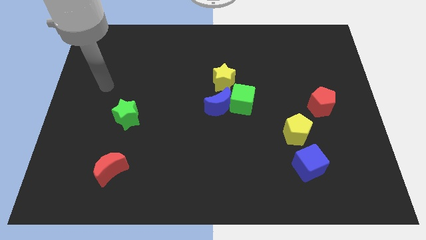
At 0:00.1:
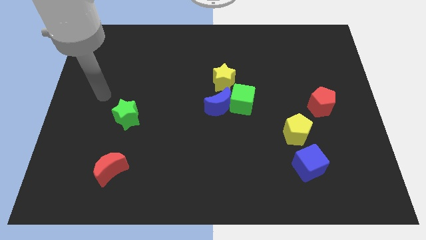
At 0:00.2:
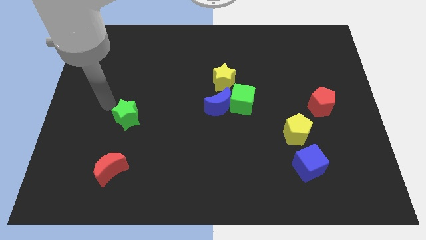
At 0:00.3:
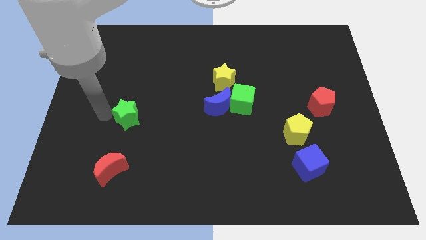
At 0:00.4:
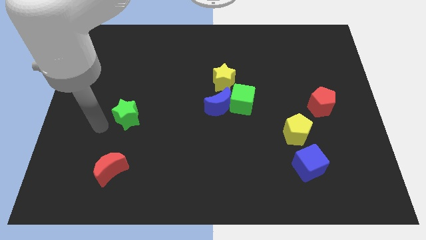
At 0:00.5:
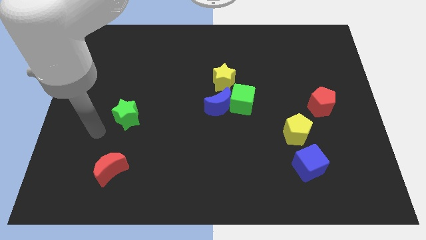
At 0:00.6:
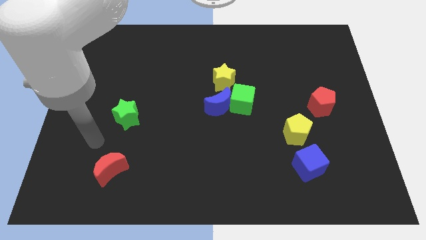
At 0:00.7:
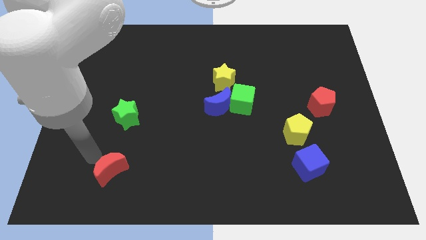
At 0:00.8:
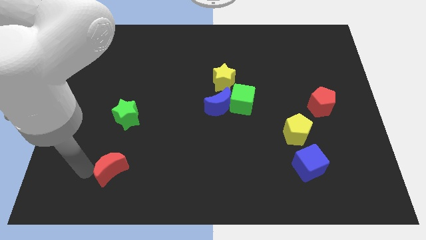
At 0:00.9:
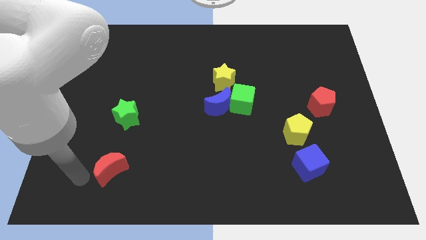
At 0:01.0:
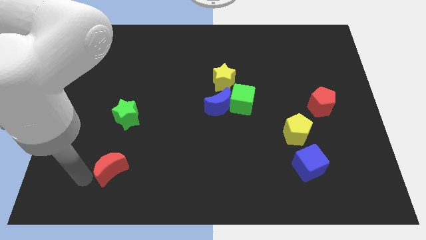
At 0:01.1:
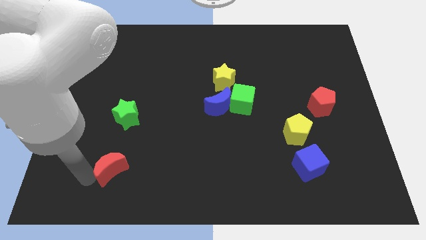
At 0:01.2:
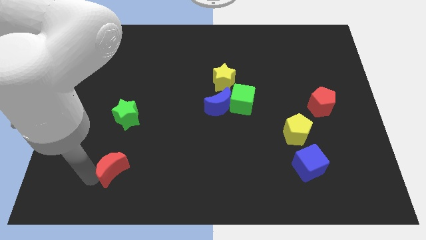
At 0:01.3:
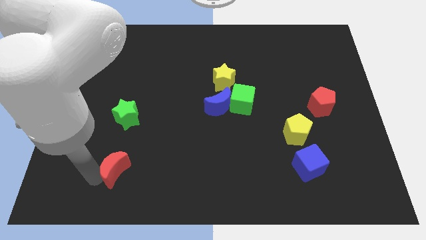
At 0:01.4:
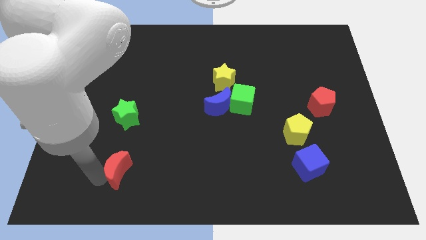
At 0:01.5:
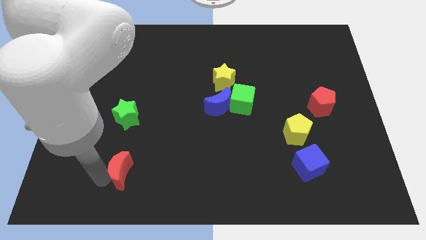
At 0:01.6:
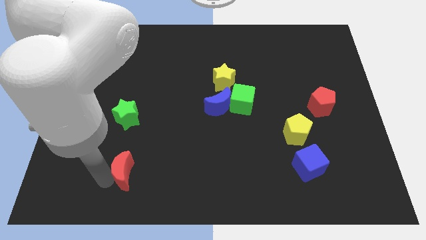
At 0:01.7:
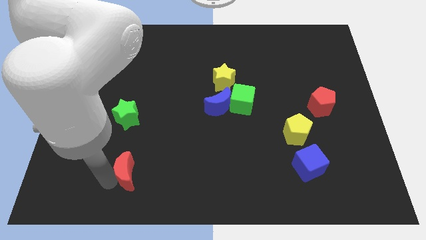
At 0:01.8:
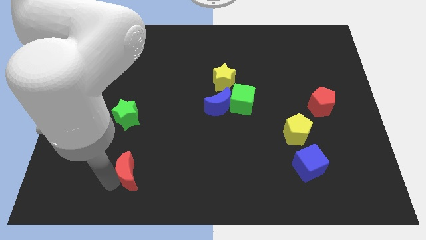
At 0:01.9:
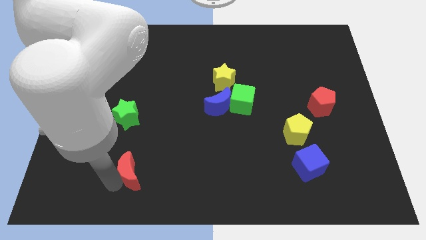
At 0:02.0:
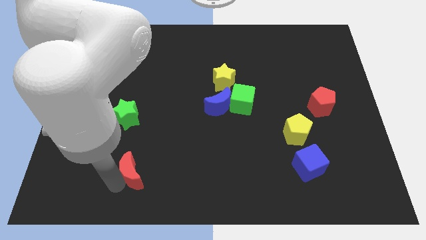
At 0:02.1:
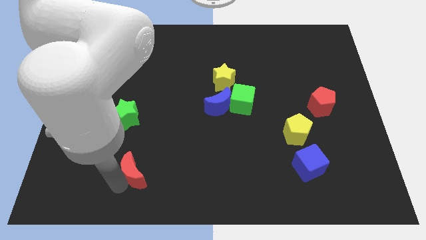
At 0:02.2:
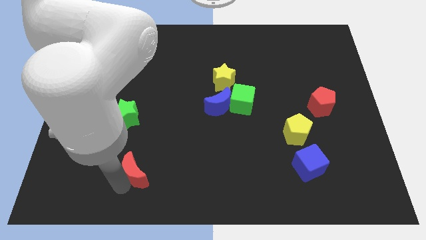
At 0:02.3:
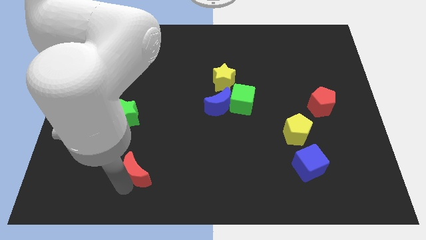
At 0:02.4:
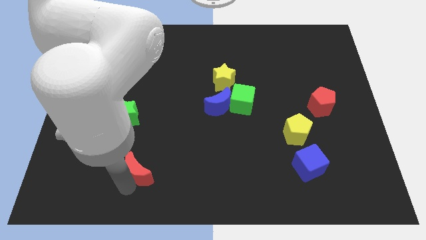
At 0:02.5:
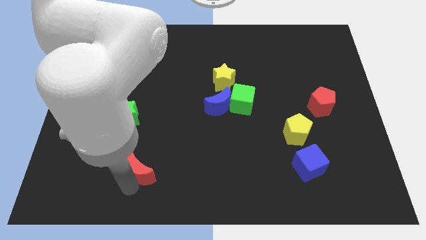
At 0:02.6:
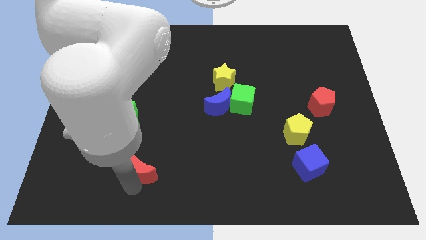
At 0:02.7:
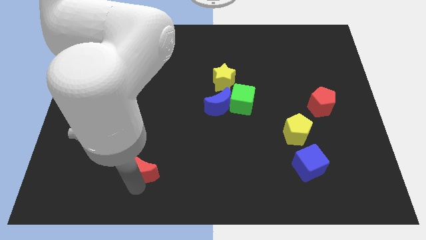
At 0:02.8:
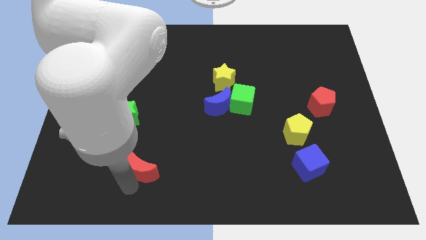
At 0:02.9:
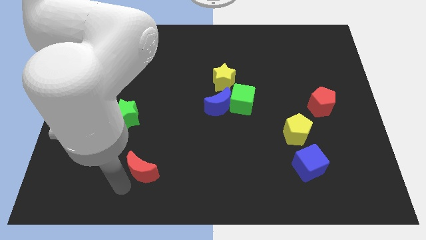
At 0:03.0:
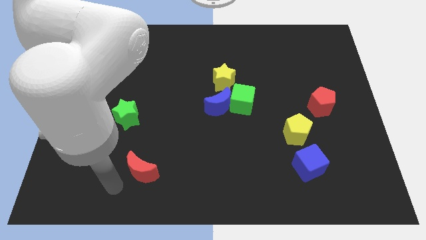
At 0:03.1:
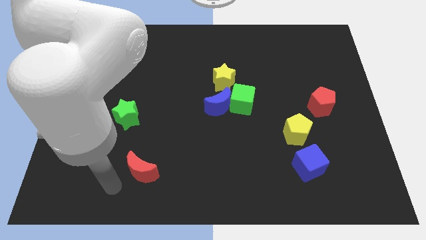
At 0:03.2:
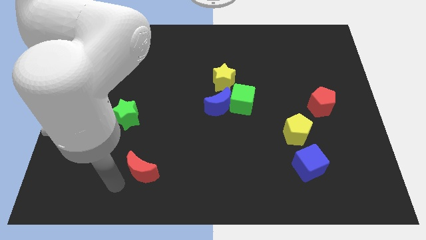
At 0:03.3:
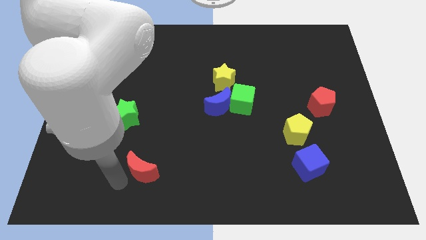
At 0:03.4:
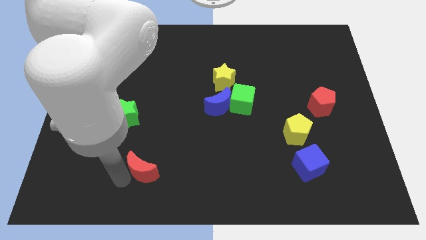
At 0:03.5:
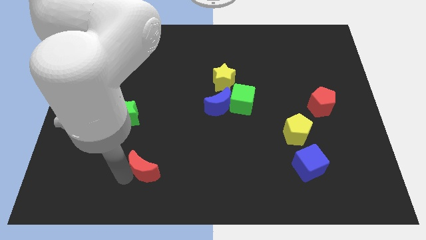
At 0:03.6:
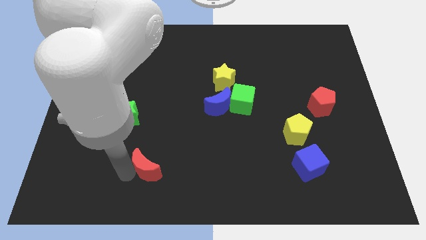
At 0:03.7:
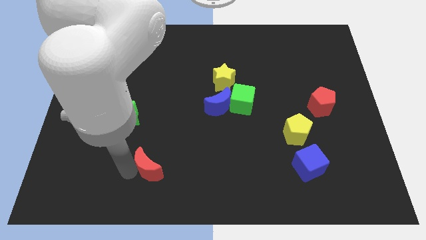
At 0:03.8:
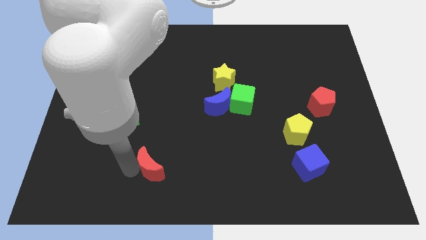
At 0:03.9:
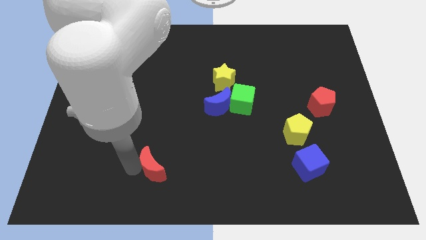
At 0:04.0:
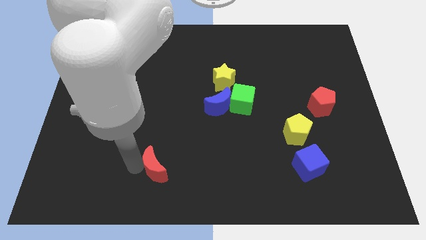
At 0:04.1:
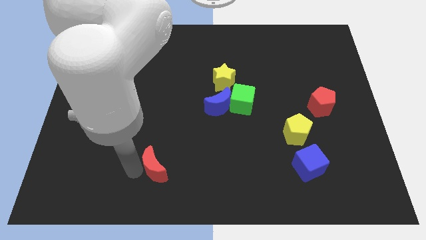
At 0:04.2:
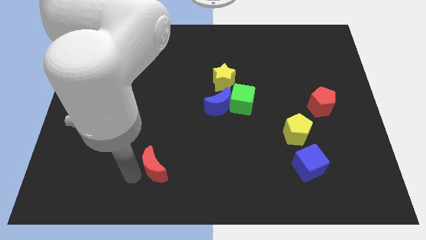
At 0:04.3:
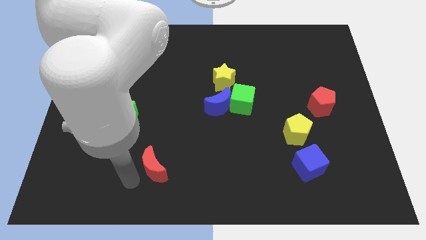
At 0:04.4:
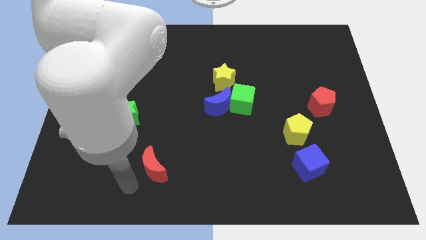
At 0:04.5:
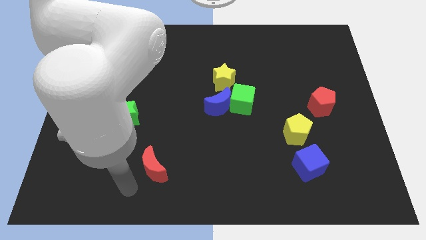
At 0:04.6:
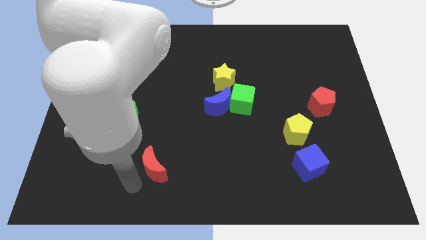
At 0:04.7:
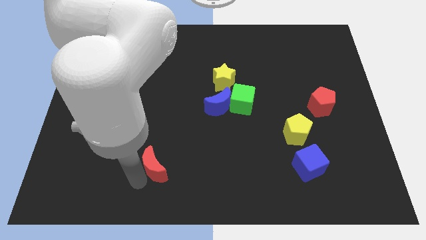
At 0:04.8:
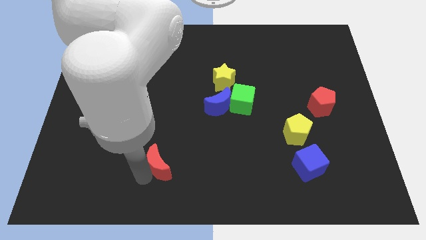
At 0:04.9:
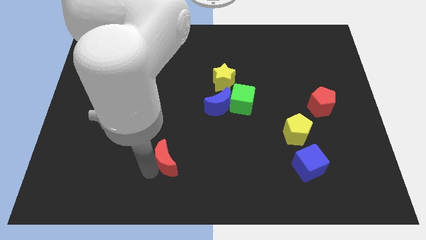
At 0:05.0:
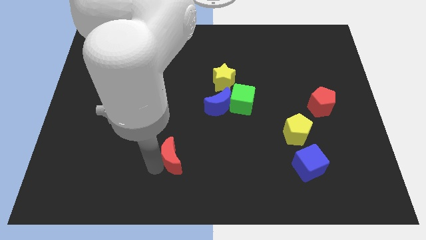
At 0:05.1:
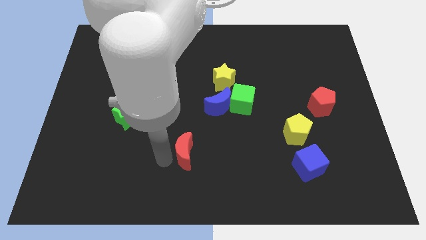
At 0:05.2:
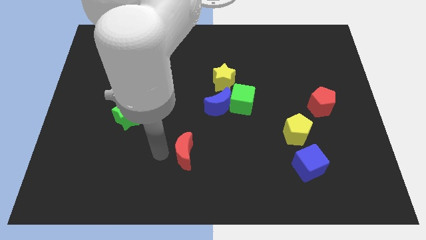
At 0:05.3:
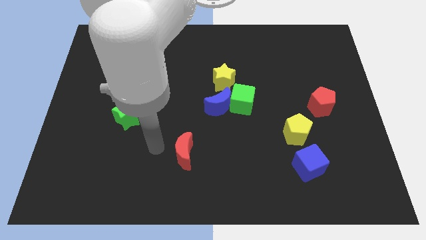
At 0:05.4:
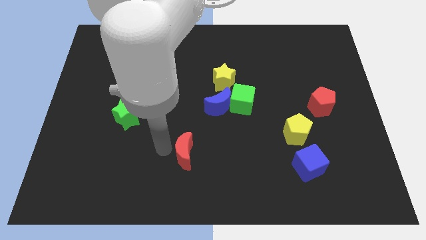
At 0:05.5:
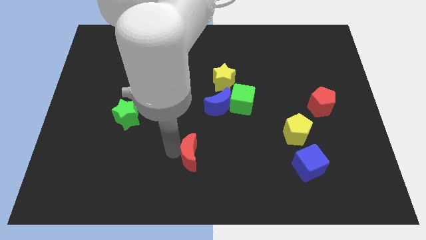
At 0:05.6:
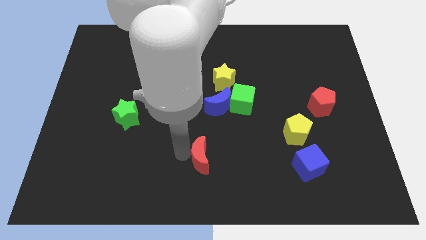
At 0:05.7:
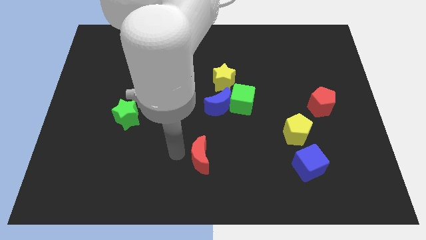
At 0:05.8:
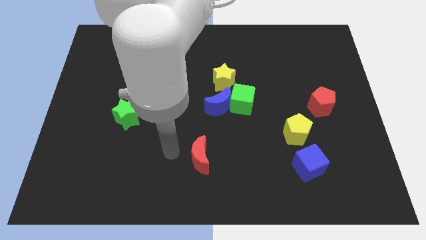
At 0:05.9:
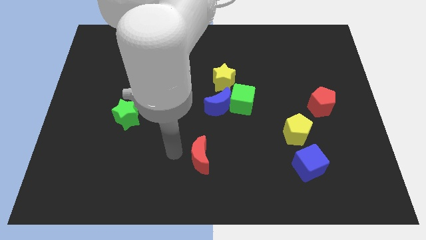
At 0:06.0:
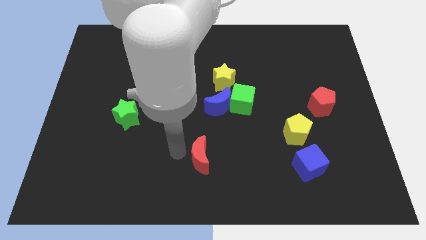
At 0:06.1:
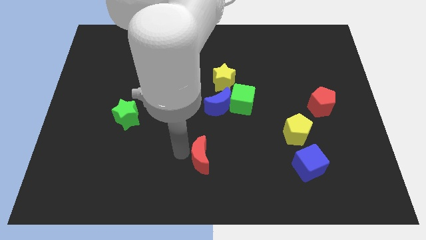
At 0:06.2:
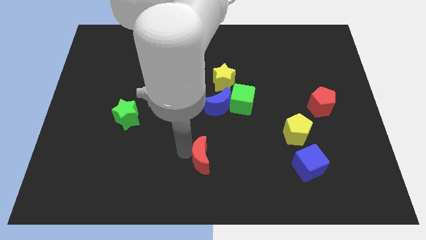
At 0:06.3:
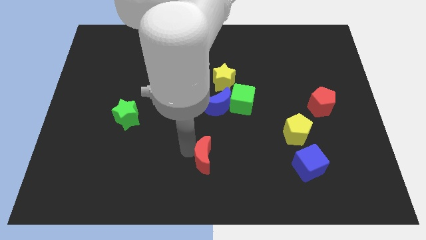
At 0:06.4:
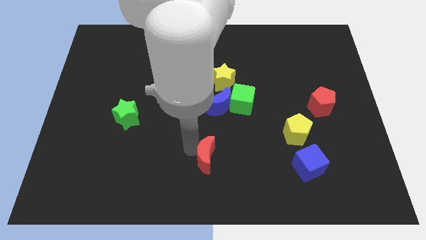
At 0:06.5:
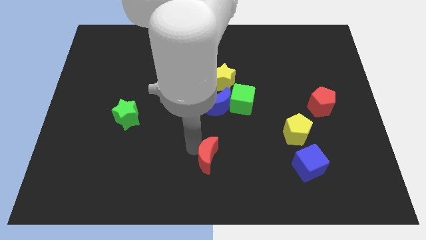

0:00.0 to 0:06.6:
slide the red moon right

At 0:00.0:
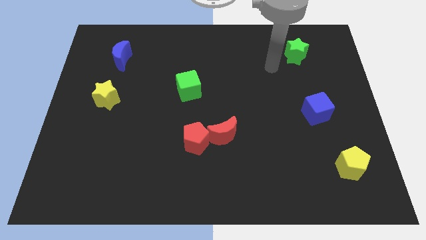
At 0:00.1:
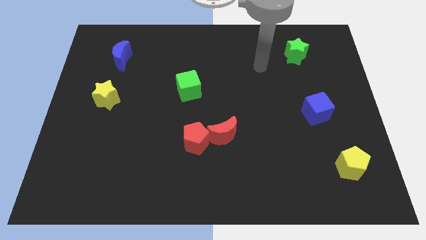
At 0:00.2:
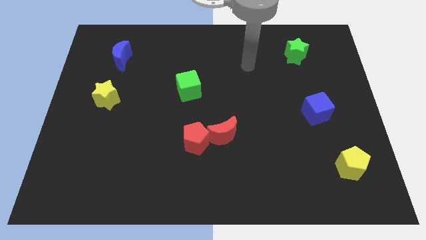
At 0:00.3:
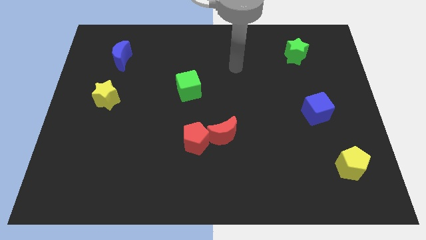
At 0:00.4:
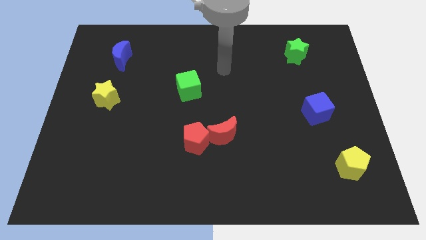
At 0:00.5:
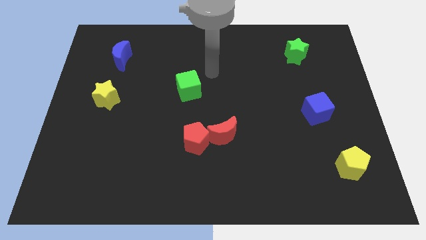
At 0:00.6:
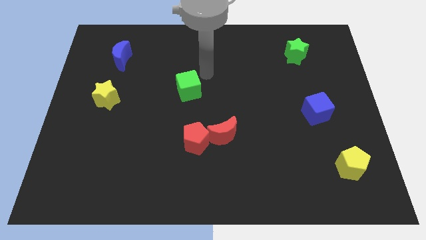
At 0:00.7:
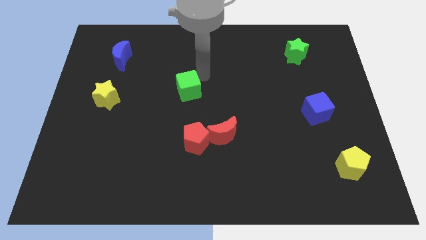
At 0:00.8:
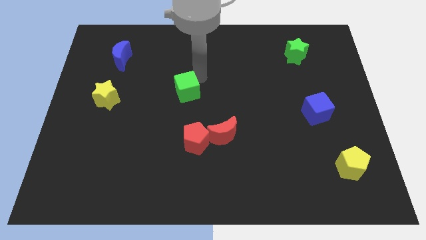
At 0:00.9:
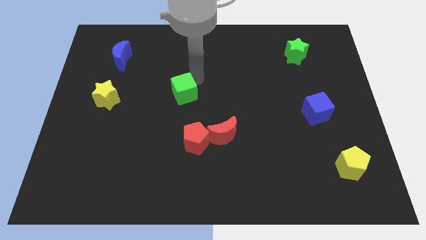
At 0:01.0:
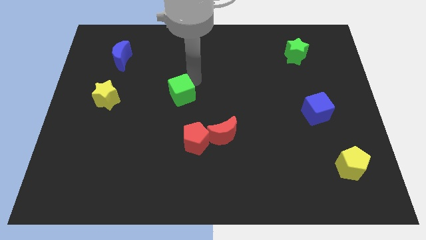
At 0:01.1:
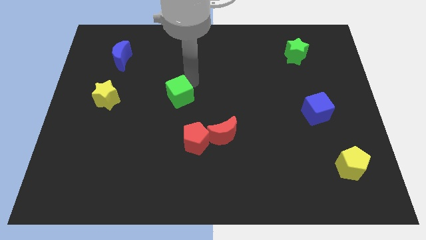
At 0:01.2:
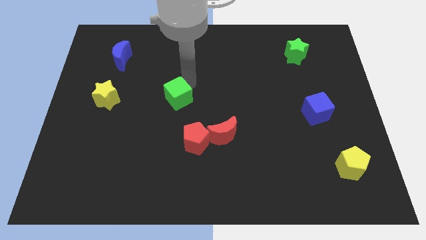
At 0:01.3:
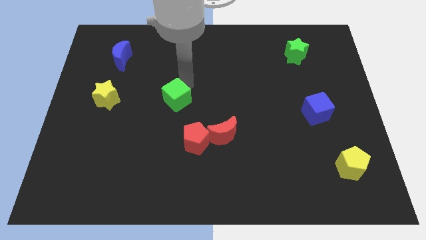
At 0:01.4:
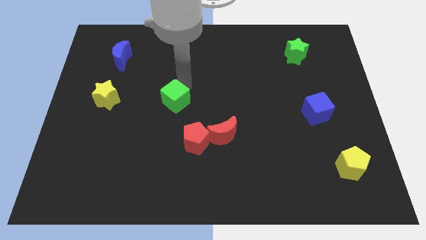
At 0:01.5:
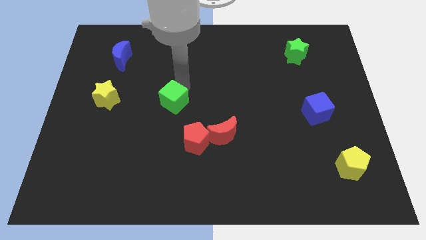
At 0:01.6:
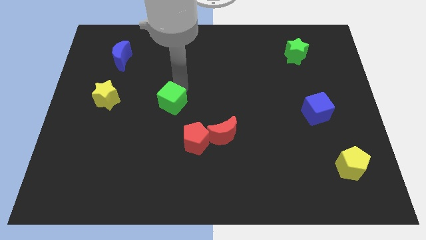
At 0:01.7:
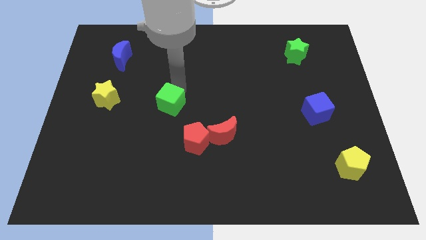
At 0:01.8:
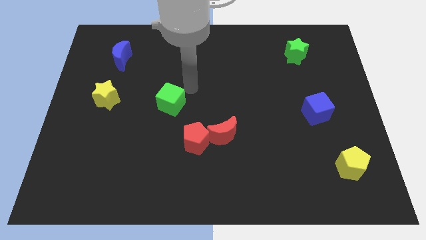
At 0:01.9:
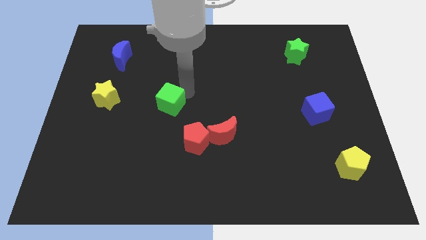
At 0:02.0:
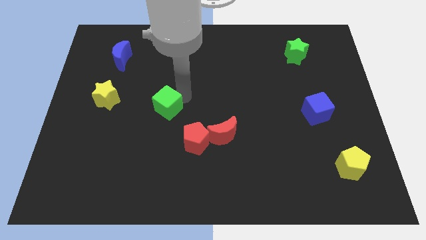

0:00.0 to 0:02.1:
push the green cube a little bit down and to the left diagonally
